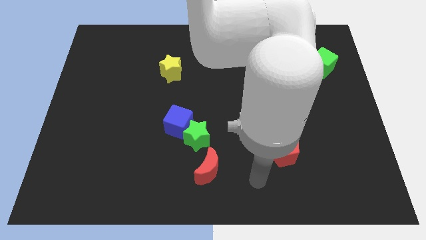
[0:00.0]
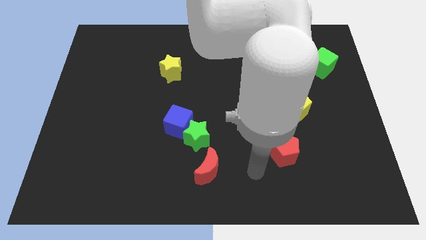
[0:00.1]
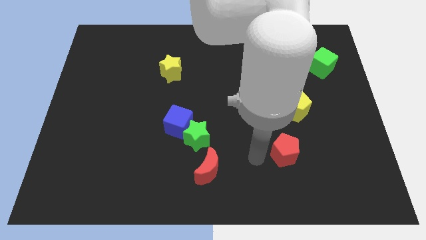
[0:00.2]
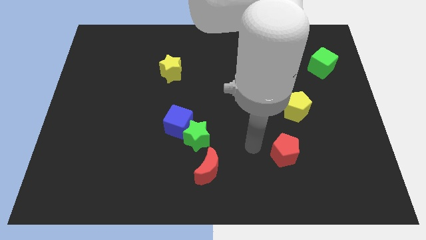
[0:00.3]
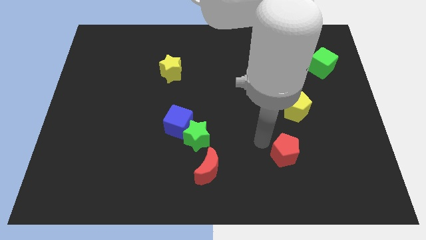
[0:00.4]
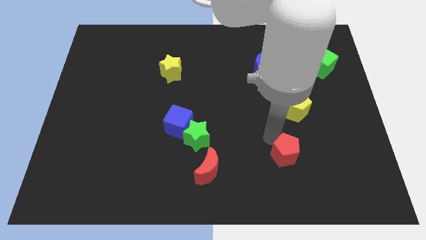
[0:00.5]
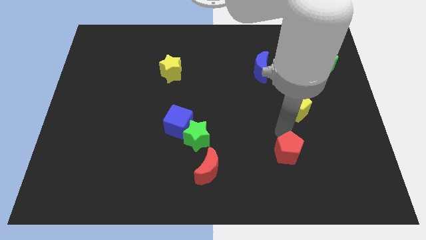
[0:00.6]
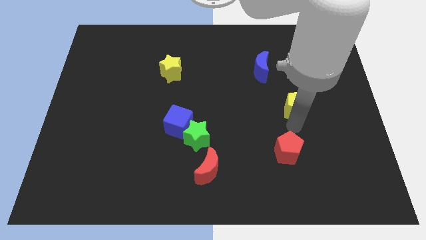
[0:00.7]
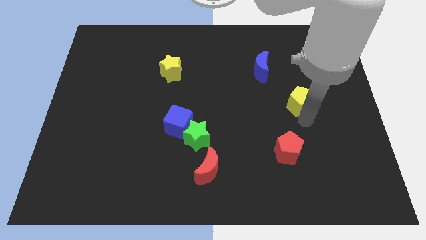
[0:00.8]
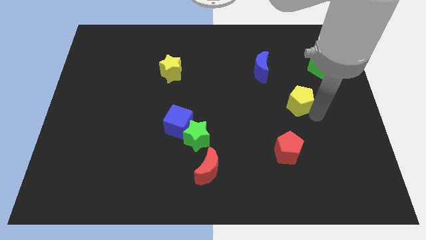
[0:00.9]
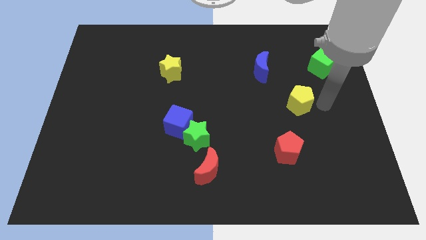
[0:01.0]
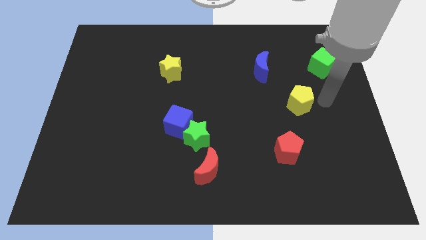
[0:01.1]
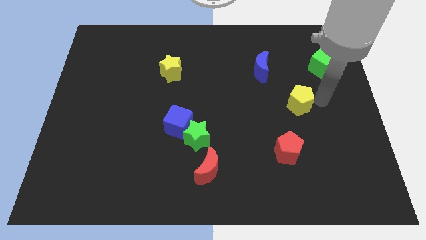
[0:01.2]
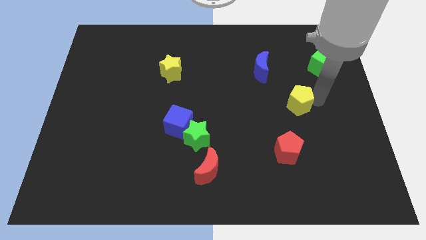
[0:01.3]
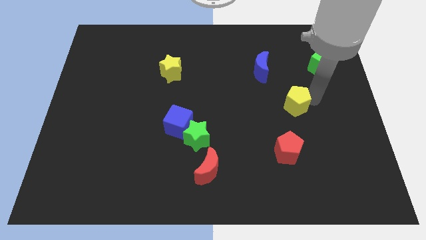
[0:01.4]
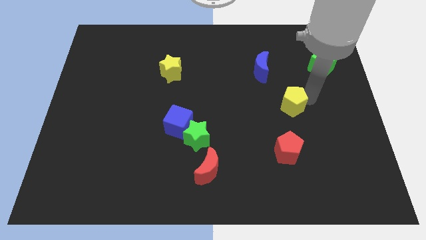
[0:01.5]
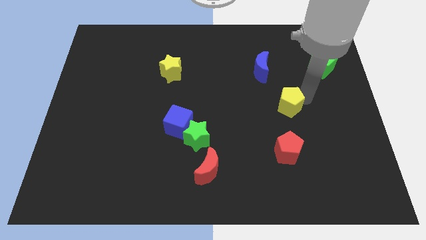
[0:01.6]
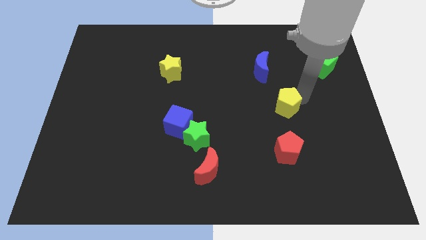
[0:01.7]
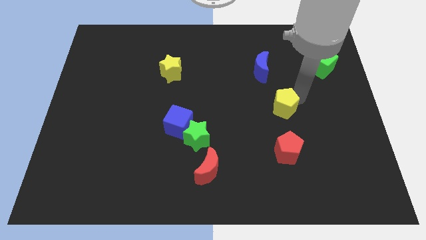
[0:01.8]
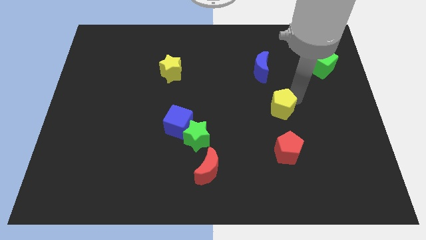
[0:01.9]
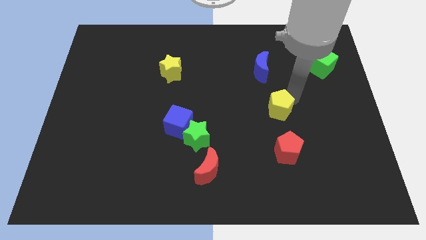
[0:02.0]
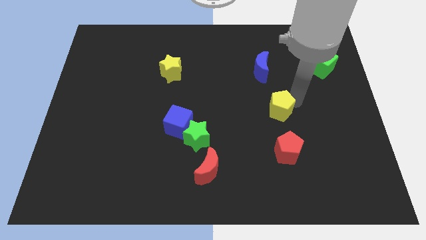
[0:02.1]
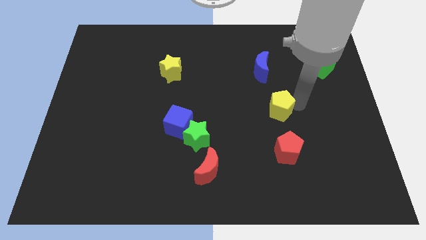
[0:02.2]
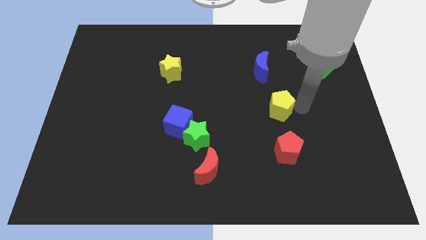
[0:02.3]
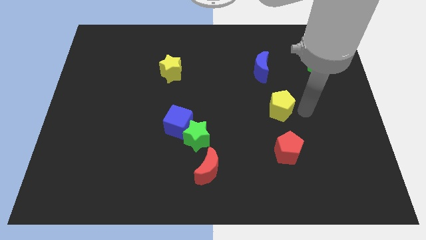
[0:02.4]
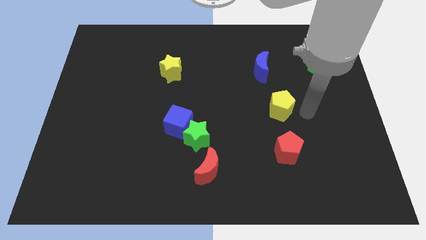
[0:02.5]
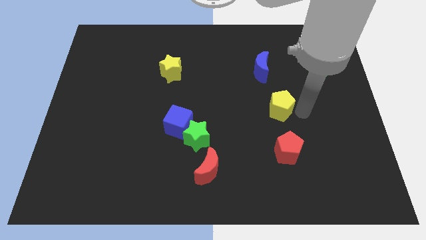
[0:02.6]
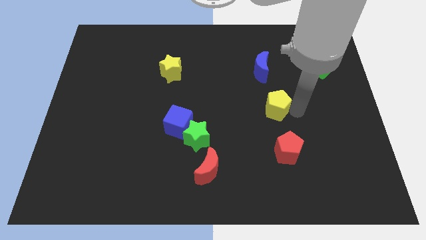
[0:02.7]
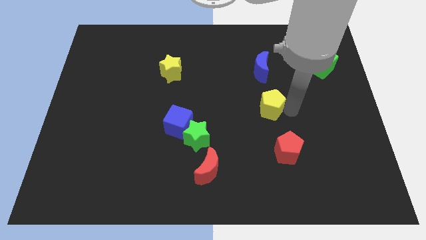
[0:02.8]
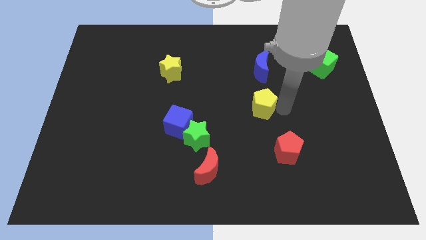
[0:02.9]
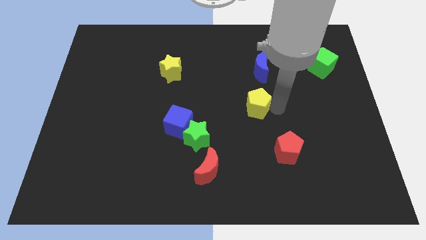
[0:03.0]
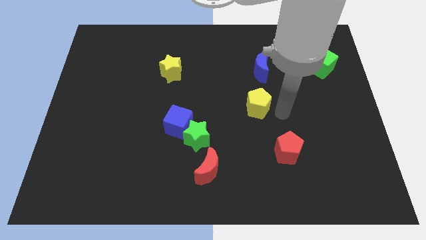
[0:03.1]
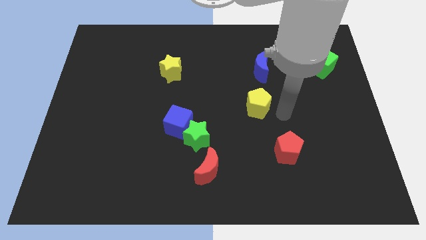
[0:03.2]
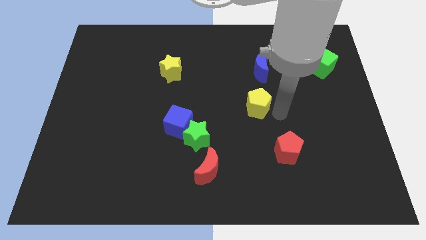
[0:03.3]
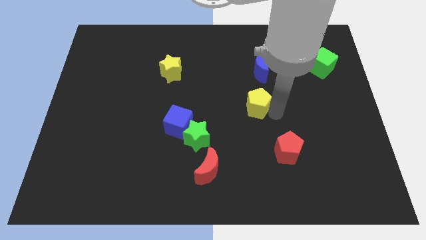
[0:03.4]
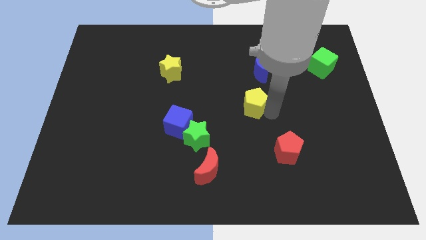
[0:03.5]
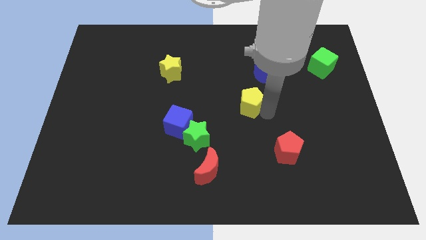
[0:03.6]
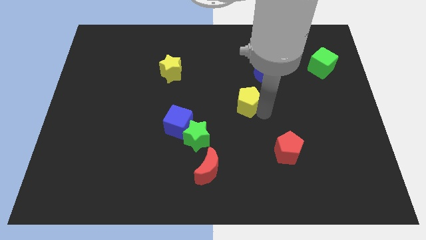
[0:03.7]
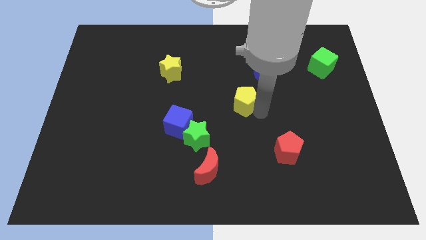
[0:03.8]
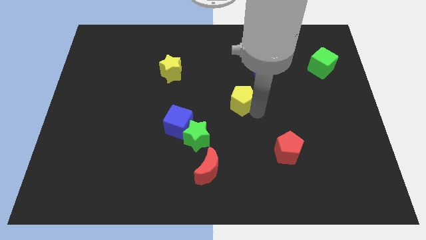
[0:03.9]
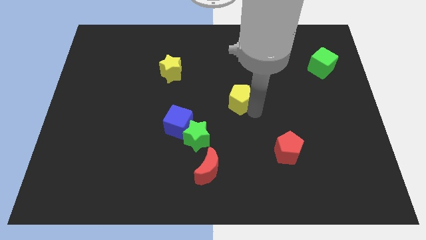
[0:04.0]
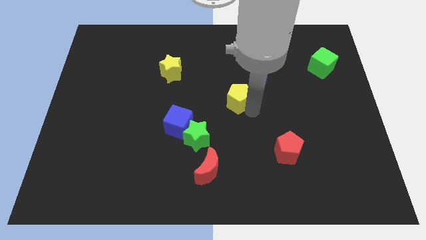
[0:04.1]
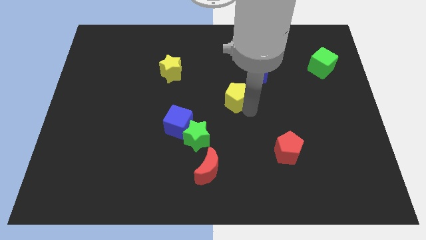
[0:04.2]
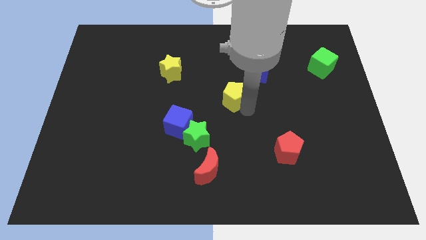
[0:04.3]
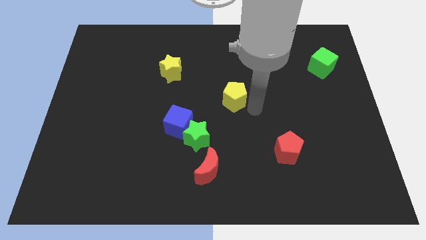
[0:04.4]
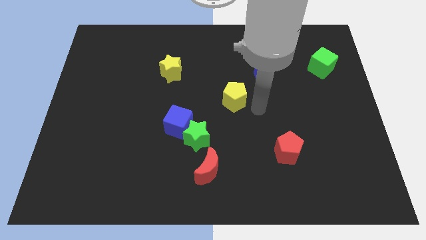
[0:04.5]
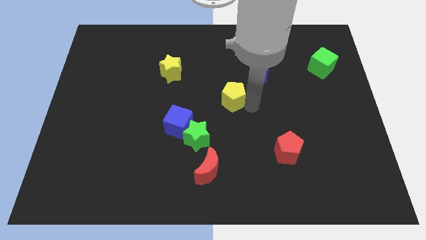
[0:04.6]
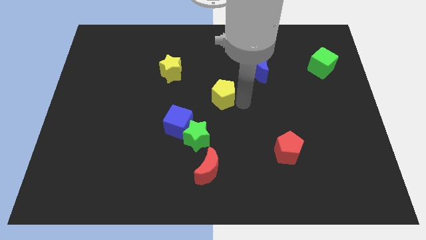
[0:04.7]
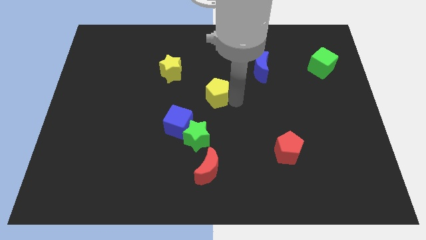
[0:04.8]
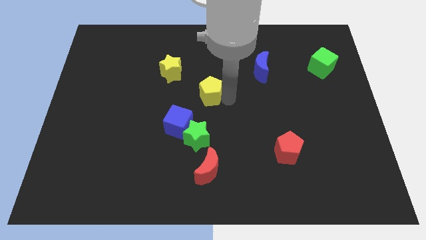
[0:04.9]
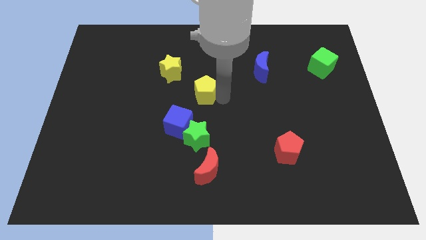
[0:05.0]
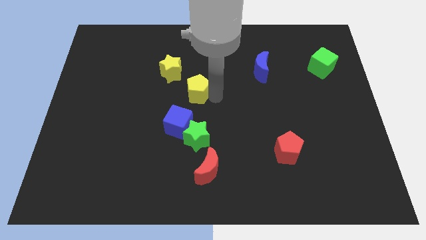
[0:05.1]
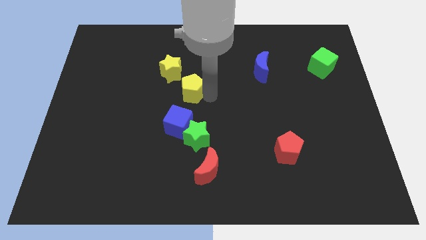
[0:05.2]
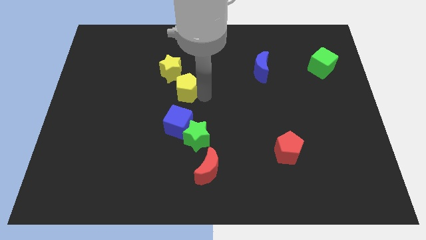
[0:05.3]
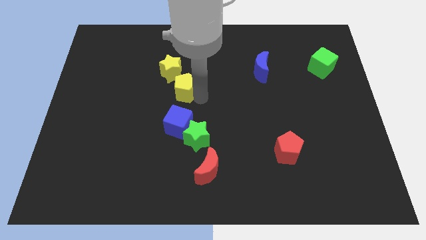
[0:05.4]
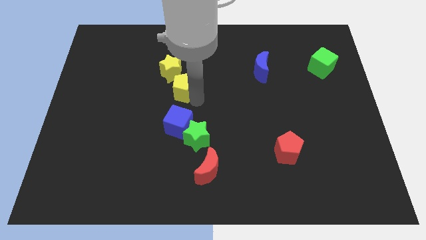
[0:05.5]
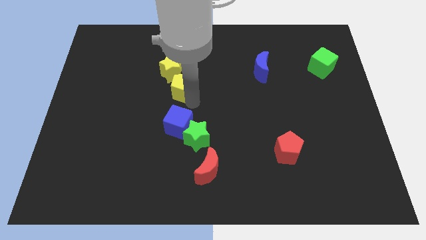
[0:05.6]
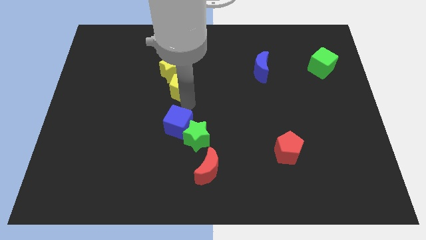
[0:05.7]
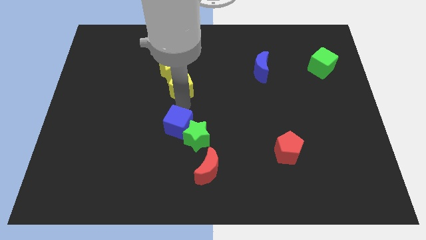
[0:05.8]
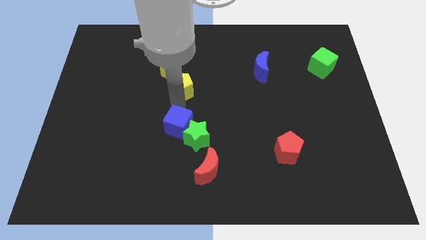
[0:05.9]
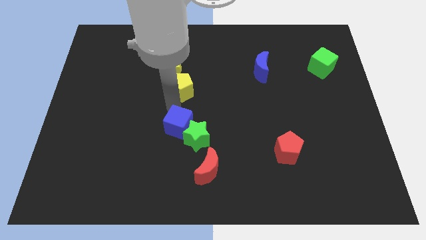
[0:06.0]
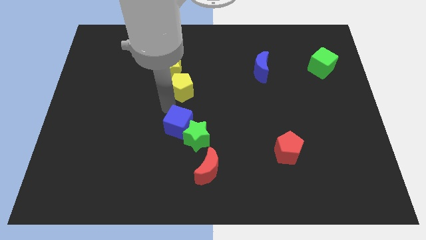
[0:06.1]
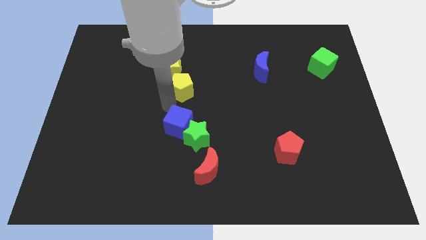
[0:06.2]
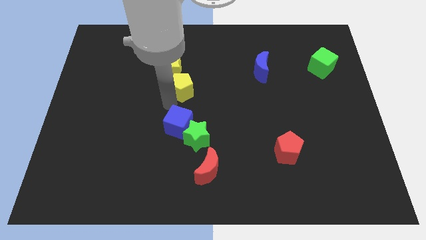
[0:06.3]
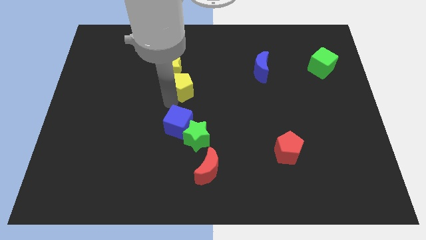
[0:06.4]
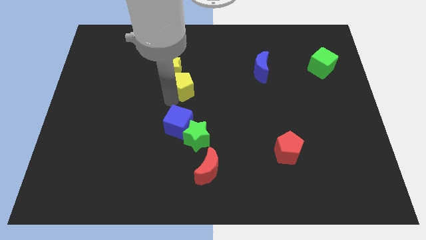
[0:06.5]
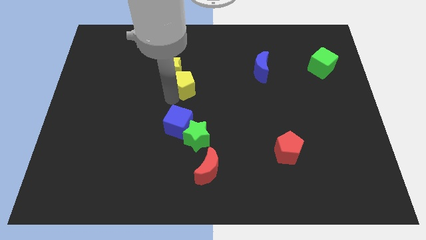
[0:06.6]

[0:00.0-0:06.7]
put the yellow pentagon close to the yellow star

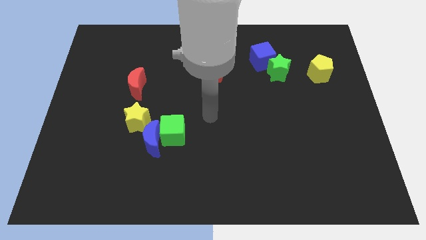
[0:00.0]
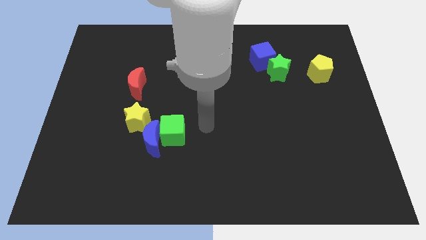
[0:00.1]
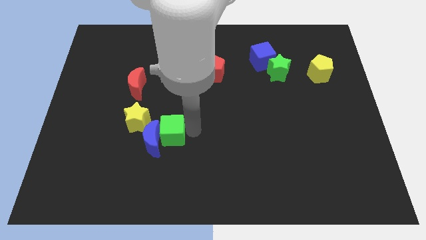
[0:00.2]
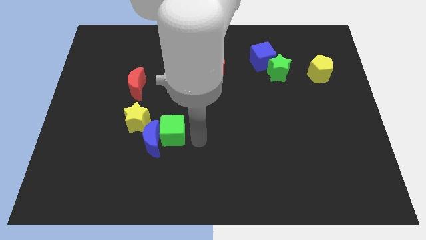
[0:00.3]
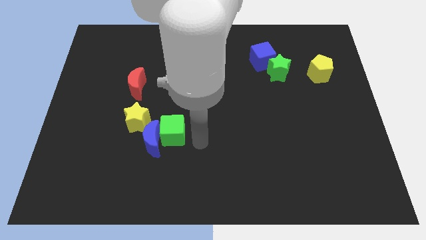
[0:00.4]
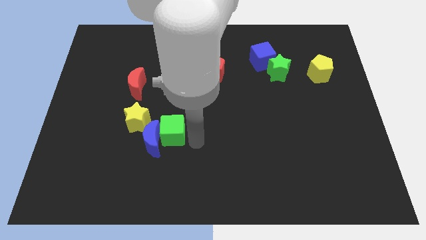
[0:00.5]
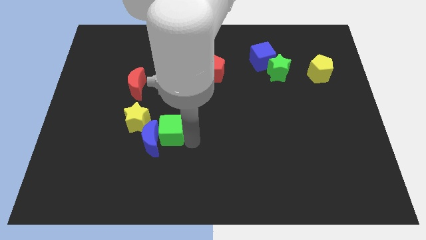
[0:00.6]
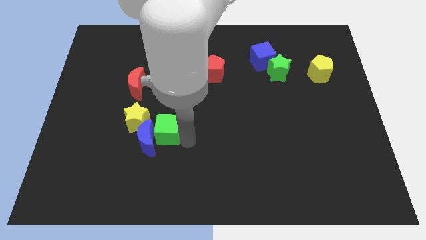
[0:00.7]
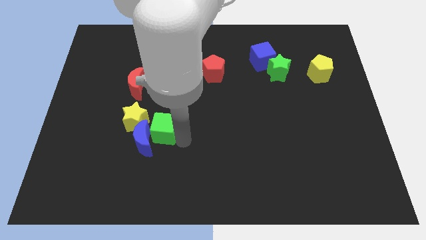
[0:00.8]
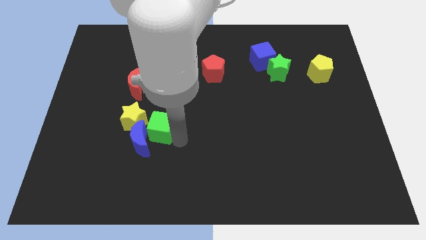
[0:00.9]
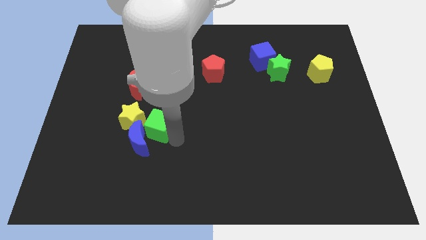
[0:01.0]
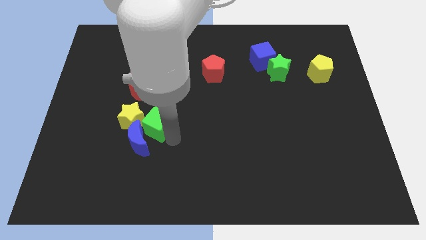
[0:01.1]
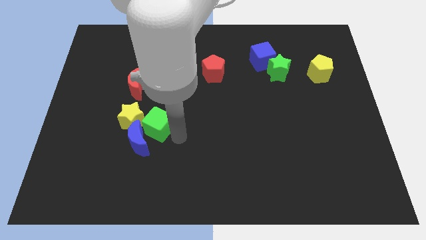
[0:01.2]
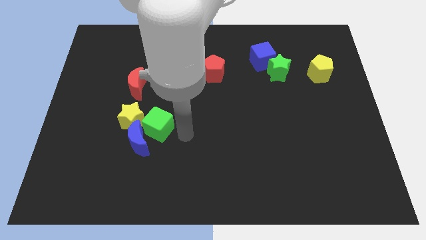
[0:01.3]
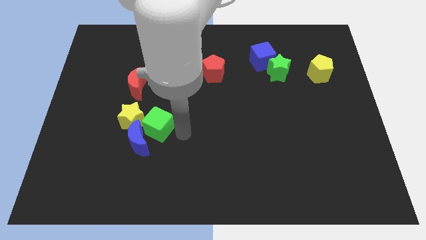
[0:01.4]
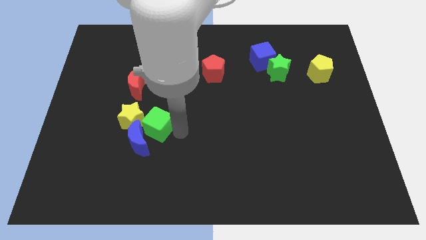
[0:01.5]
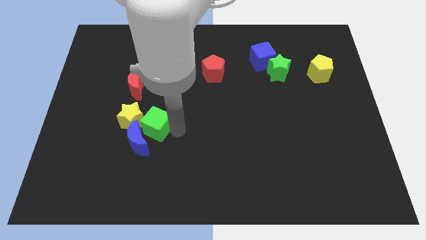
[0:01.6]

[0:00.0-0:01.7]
put the green cube close to the yellow star
